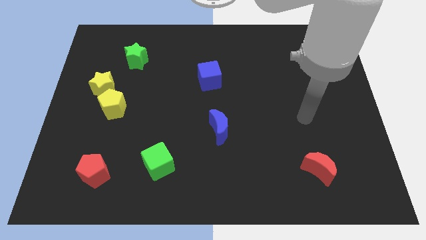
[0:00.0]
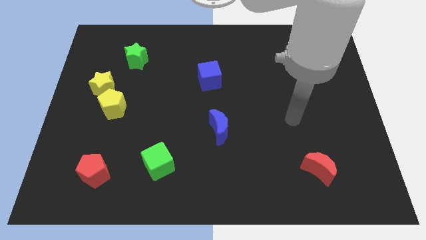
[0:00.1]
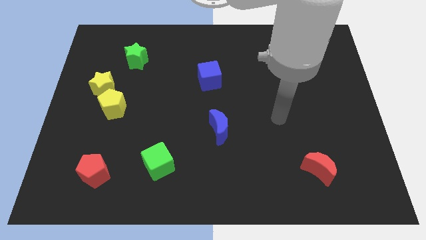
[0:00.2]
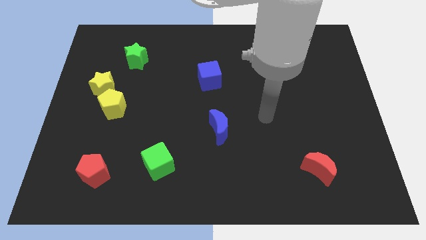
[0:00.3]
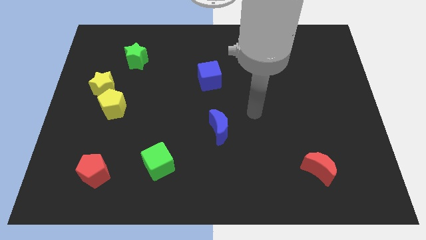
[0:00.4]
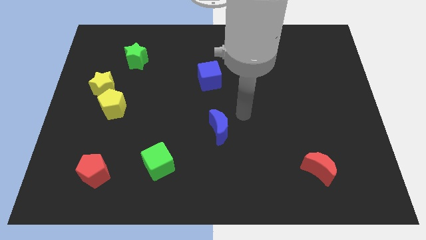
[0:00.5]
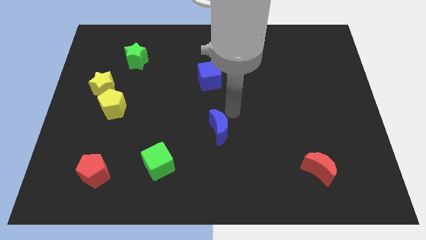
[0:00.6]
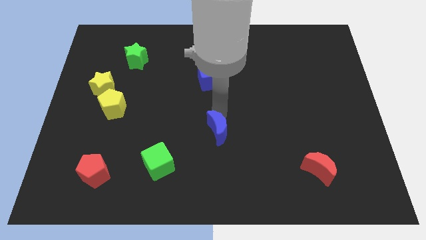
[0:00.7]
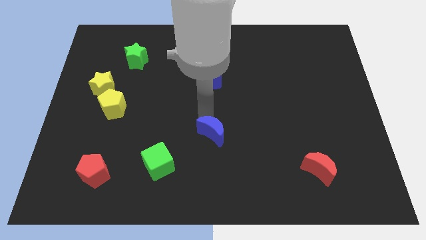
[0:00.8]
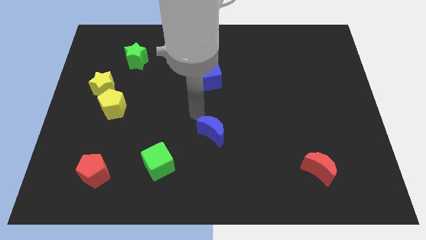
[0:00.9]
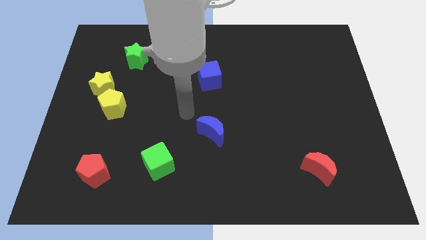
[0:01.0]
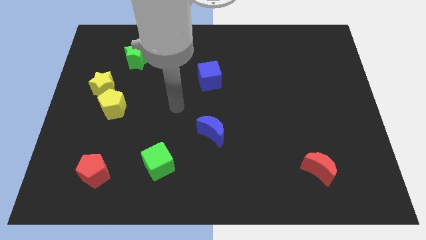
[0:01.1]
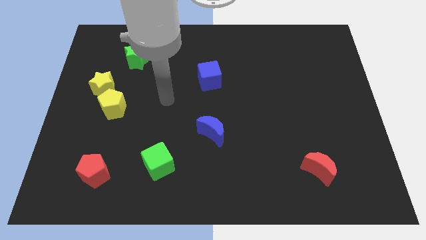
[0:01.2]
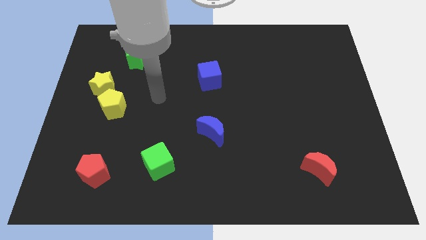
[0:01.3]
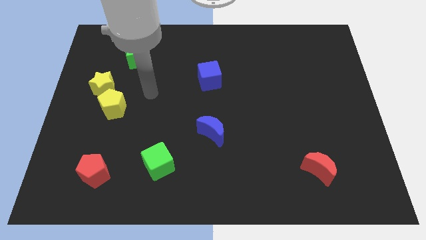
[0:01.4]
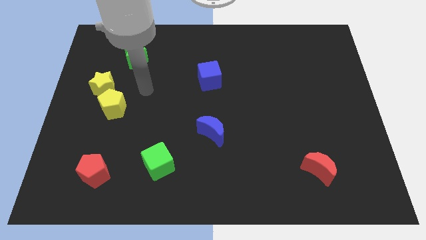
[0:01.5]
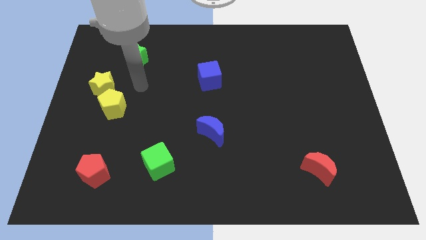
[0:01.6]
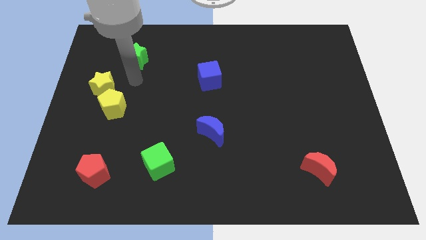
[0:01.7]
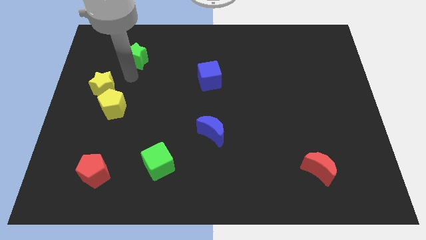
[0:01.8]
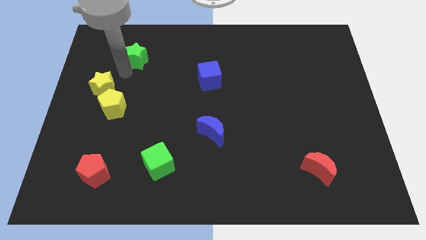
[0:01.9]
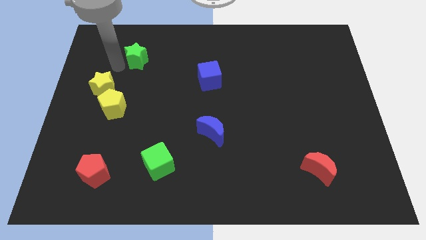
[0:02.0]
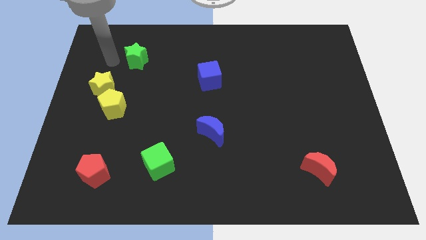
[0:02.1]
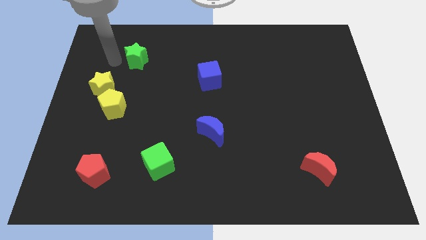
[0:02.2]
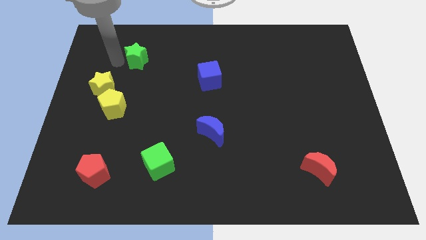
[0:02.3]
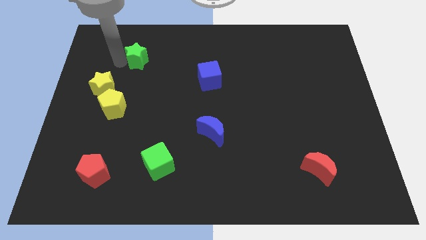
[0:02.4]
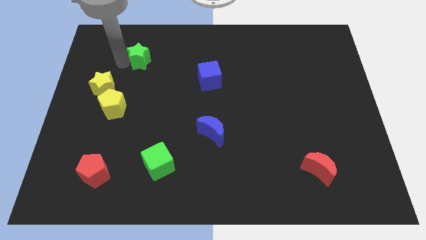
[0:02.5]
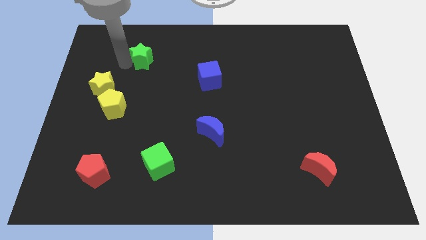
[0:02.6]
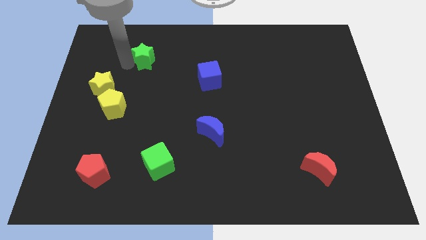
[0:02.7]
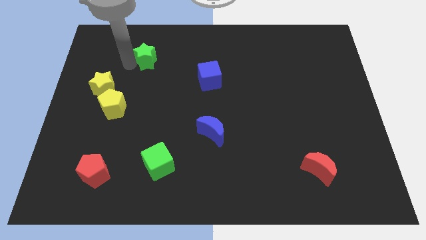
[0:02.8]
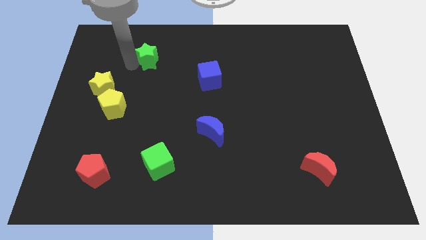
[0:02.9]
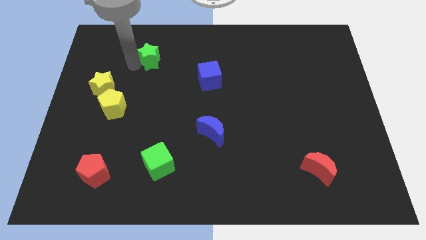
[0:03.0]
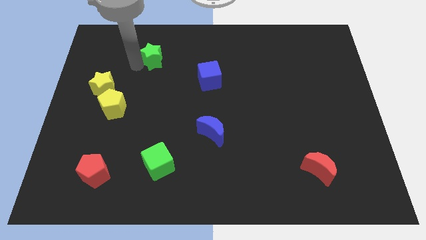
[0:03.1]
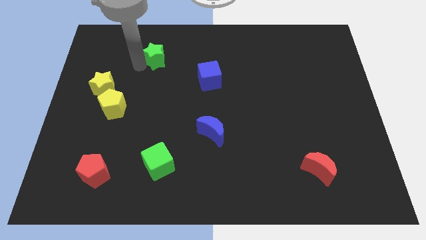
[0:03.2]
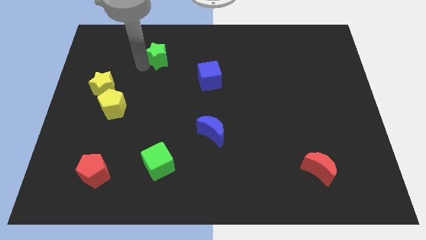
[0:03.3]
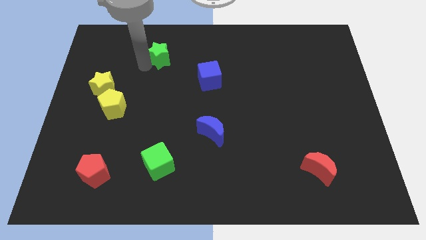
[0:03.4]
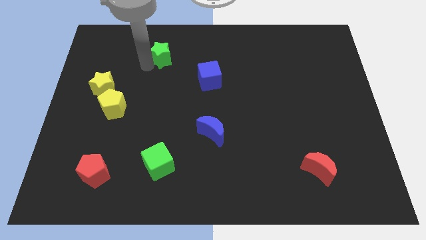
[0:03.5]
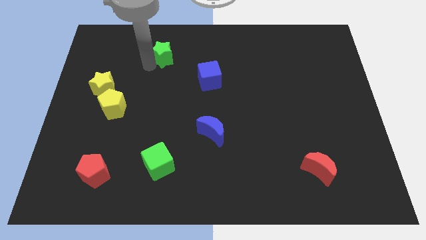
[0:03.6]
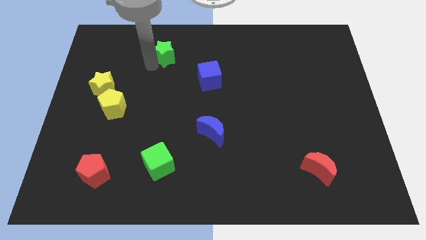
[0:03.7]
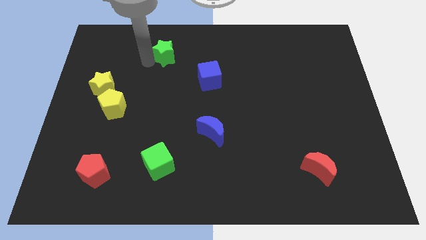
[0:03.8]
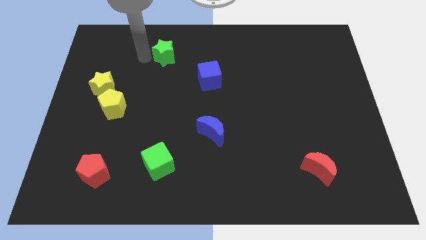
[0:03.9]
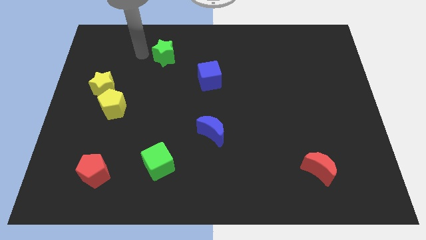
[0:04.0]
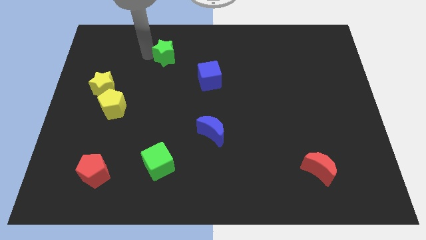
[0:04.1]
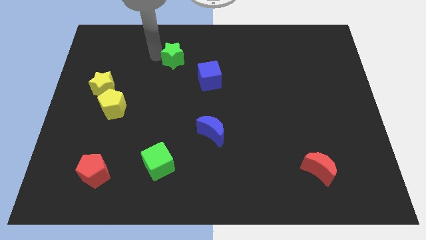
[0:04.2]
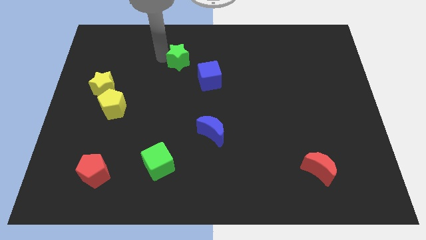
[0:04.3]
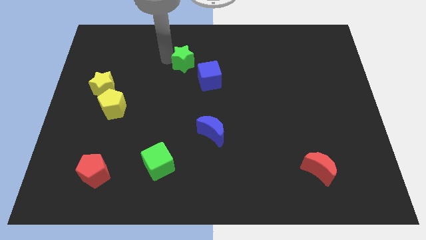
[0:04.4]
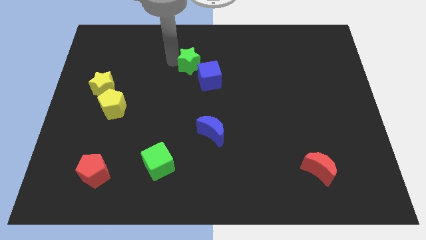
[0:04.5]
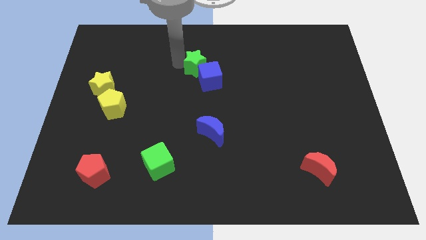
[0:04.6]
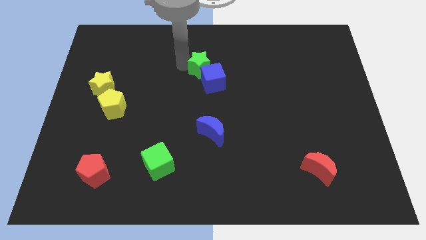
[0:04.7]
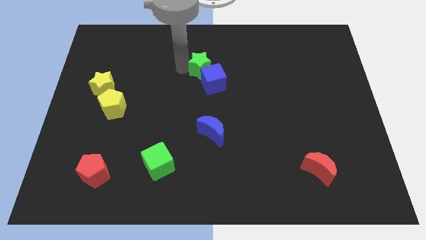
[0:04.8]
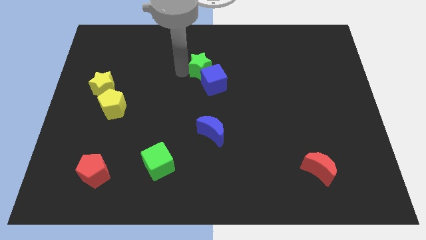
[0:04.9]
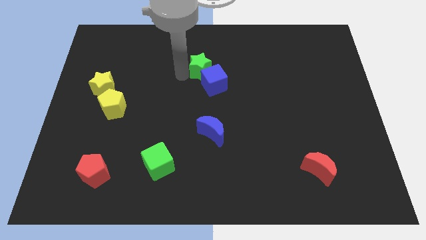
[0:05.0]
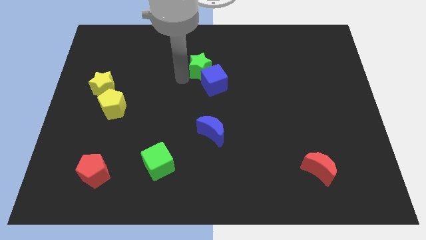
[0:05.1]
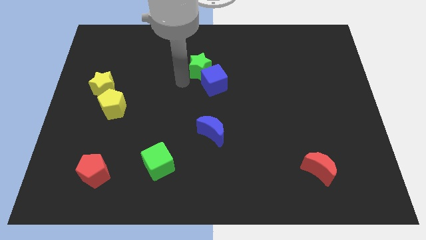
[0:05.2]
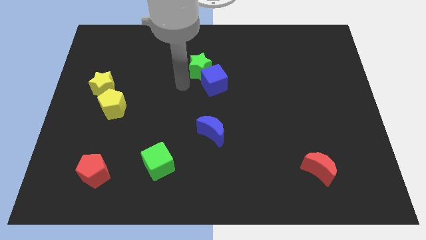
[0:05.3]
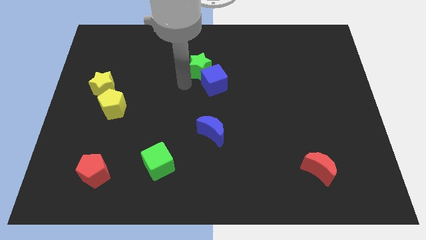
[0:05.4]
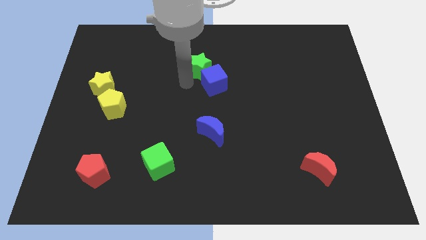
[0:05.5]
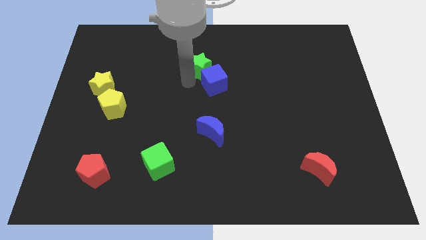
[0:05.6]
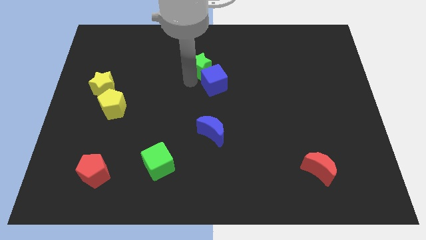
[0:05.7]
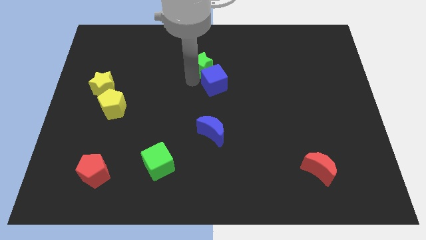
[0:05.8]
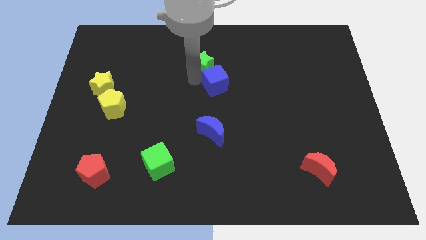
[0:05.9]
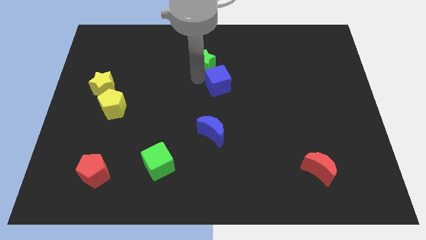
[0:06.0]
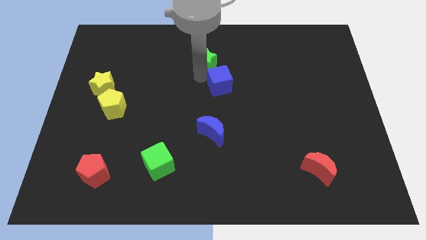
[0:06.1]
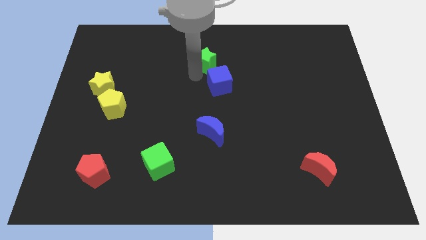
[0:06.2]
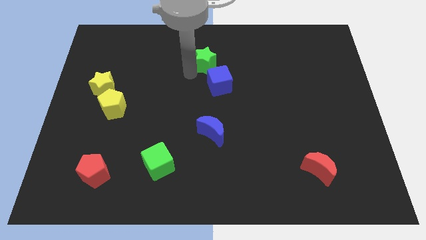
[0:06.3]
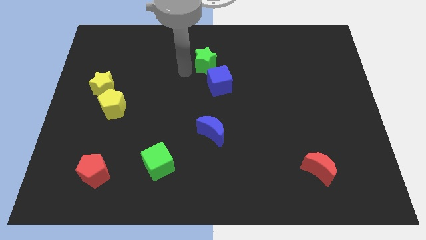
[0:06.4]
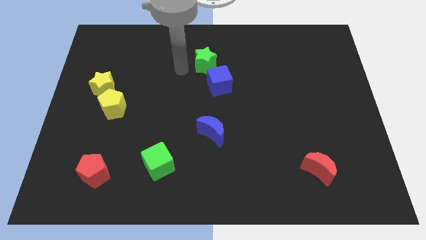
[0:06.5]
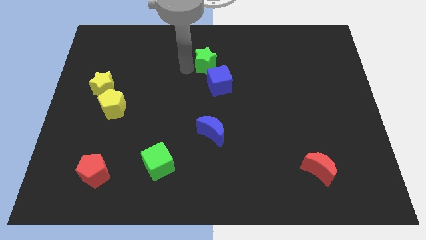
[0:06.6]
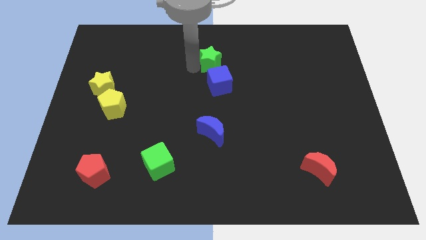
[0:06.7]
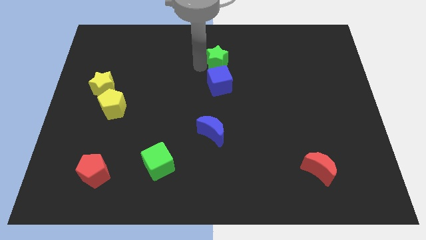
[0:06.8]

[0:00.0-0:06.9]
slide the green star to the right

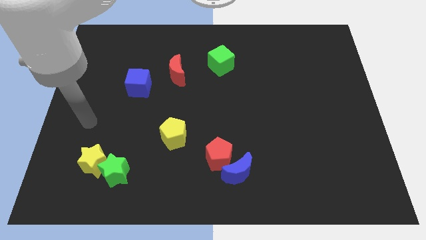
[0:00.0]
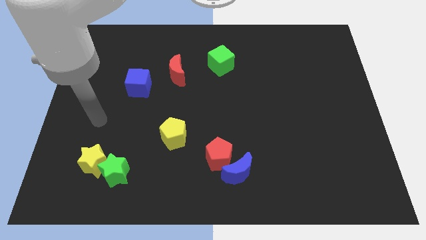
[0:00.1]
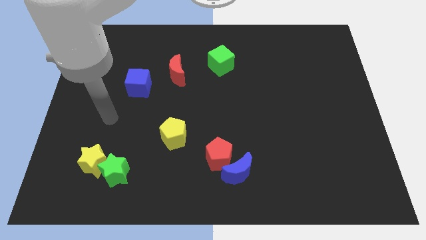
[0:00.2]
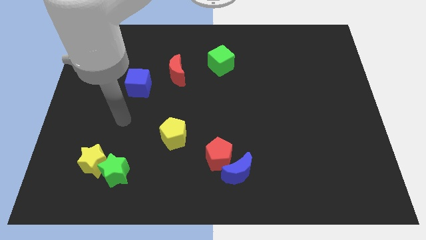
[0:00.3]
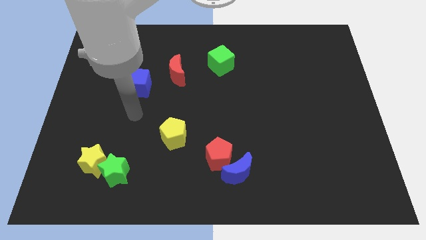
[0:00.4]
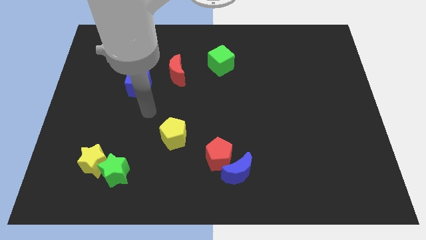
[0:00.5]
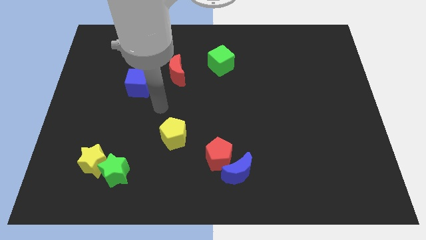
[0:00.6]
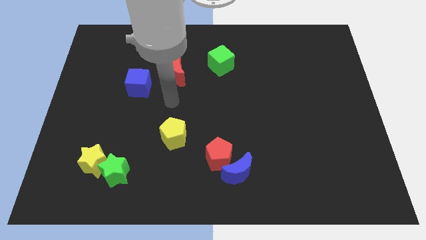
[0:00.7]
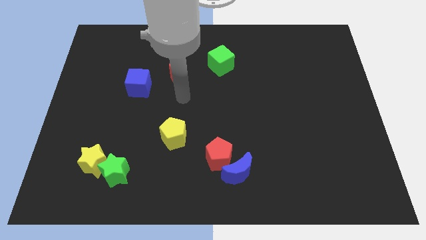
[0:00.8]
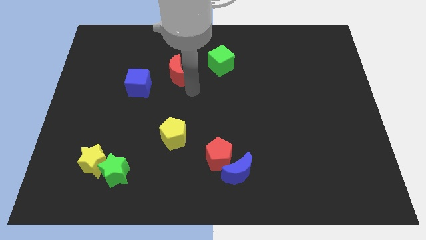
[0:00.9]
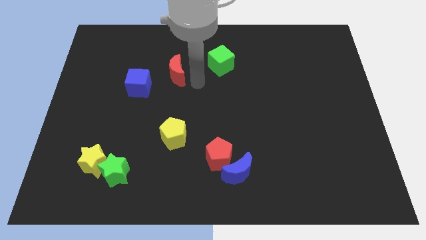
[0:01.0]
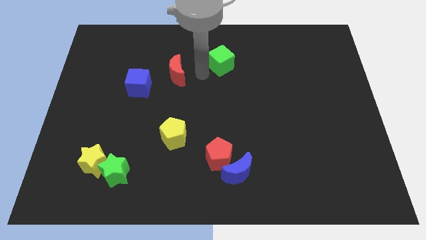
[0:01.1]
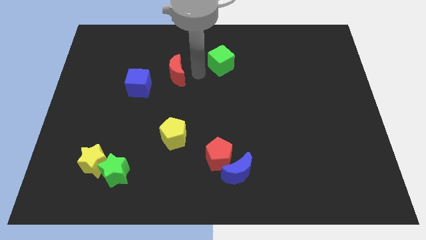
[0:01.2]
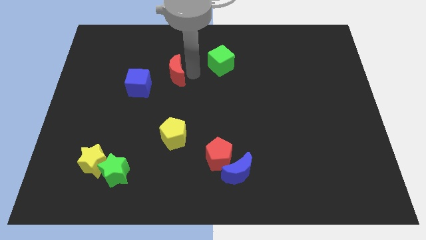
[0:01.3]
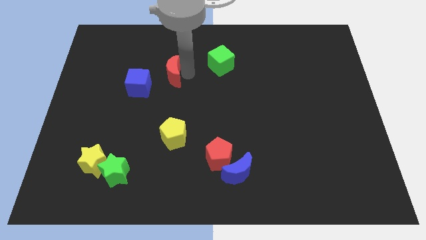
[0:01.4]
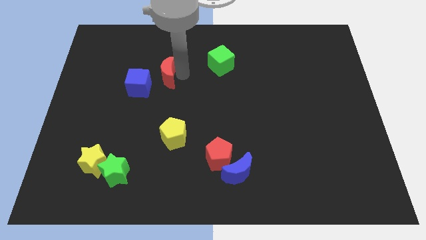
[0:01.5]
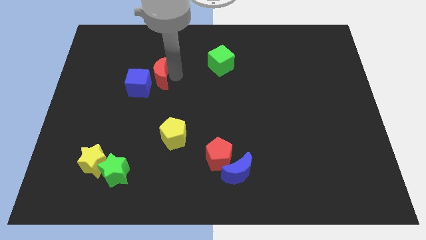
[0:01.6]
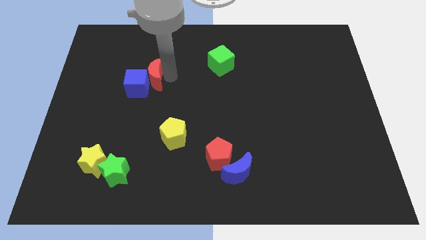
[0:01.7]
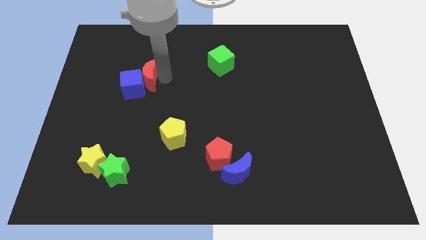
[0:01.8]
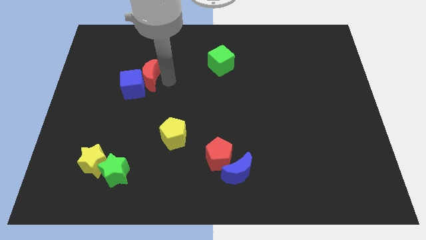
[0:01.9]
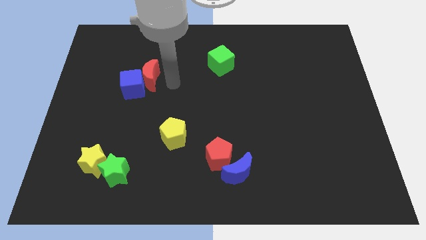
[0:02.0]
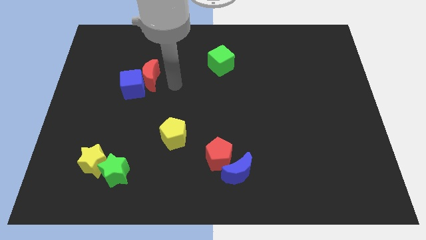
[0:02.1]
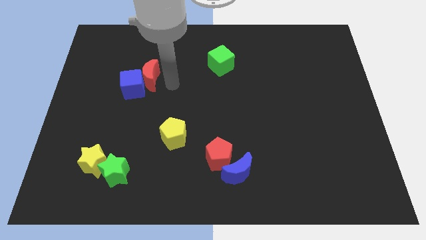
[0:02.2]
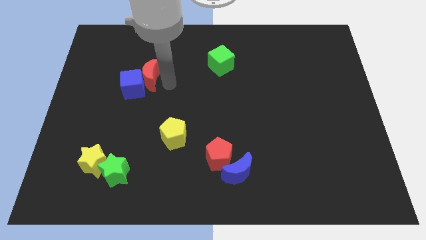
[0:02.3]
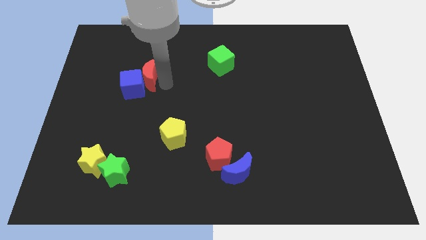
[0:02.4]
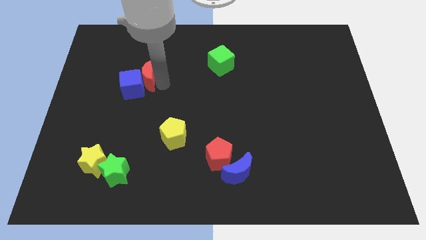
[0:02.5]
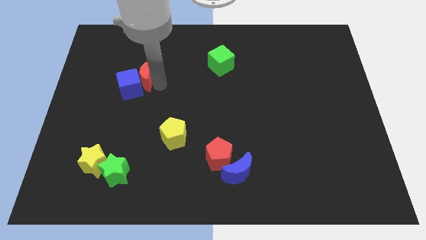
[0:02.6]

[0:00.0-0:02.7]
move the red moon a bit left
